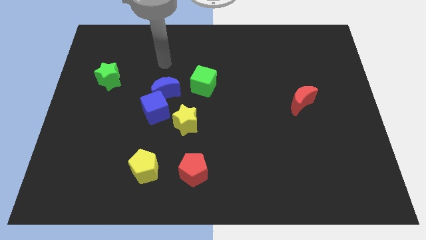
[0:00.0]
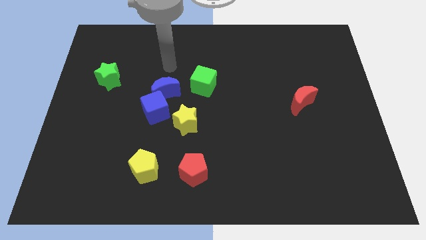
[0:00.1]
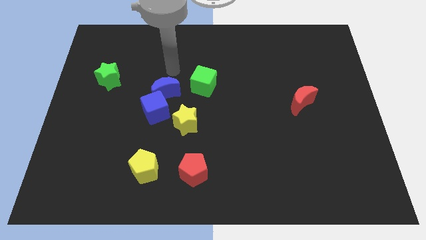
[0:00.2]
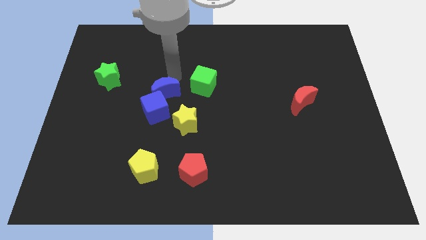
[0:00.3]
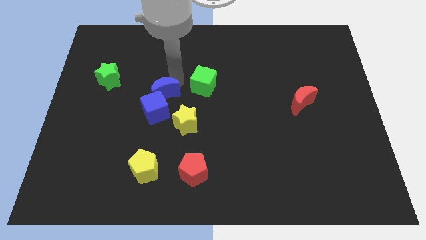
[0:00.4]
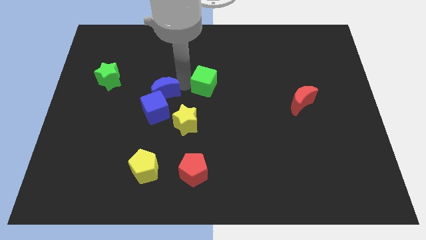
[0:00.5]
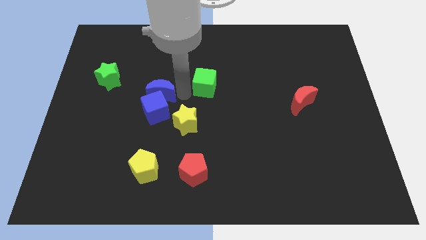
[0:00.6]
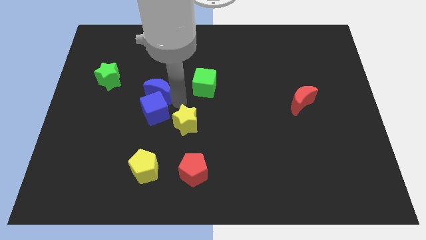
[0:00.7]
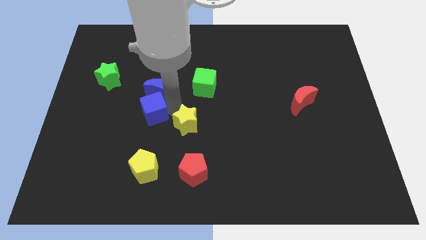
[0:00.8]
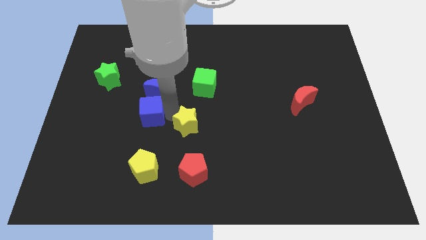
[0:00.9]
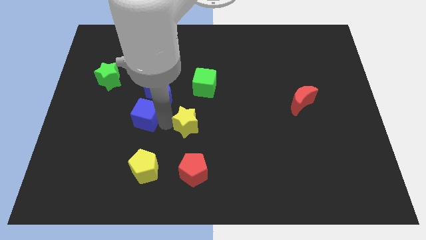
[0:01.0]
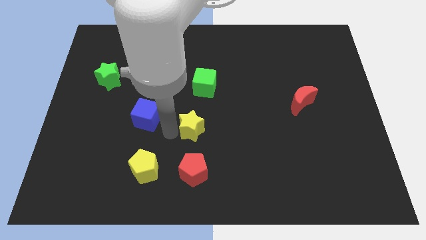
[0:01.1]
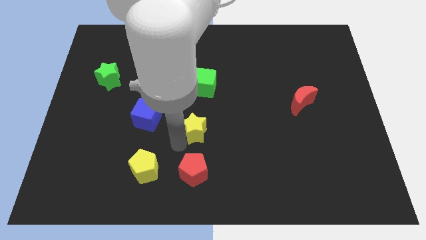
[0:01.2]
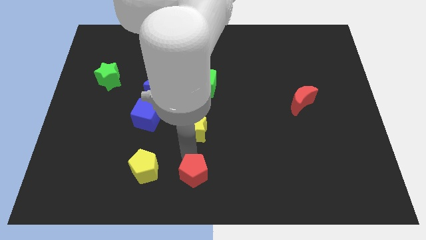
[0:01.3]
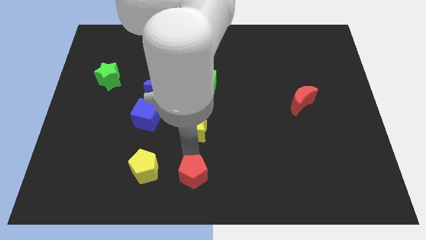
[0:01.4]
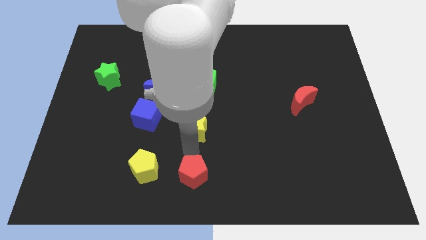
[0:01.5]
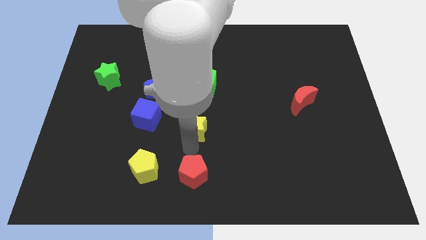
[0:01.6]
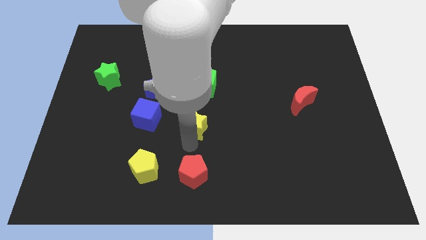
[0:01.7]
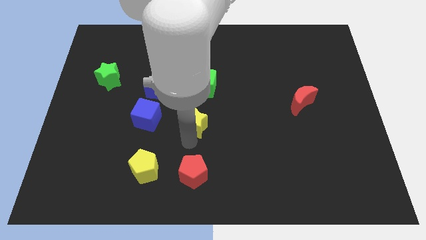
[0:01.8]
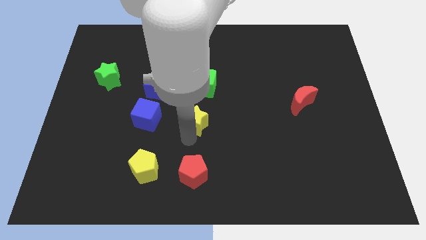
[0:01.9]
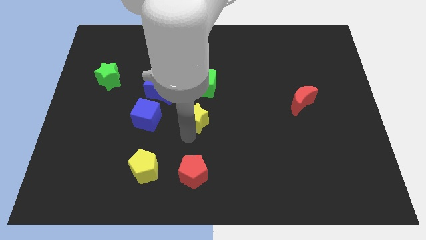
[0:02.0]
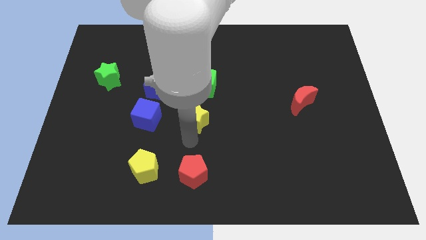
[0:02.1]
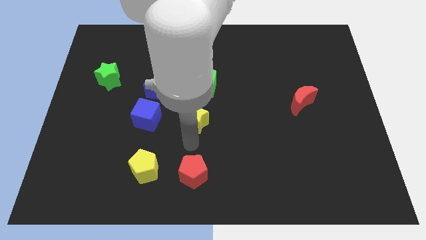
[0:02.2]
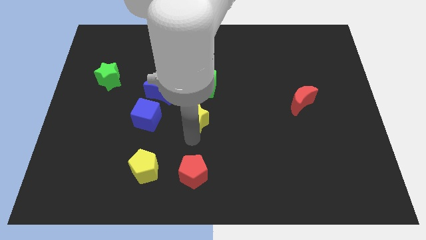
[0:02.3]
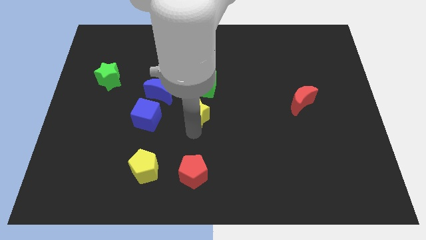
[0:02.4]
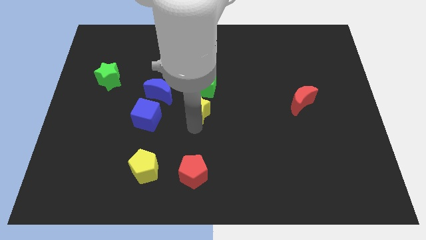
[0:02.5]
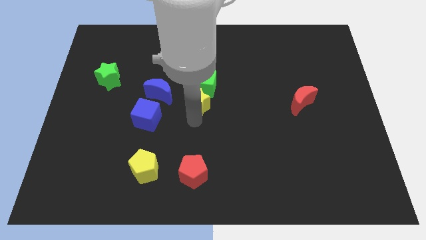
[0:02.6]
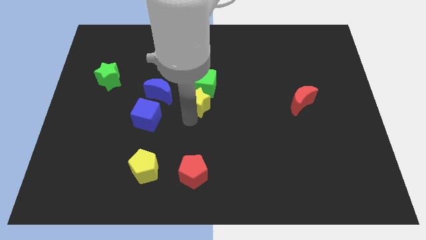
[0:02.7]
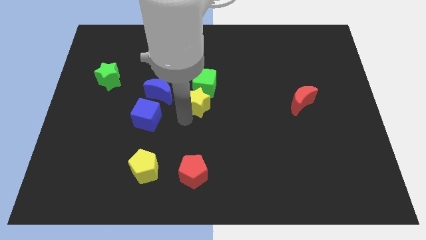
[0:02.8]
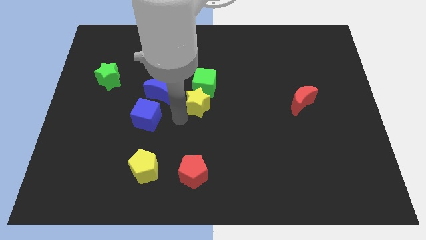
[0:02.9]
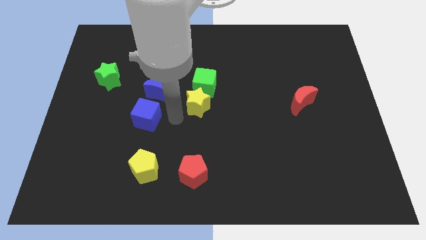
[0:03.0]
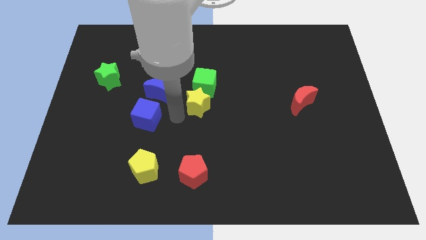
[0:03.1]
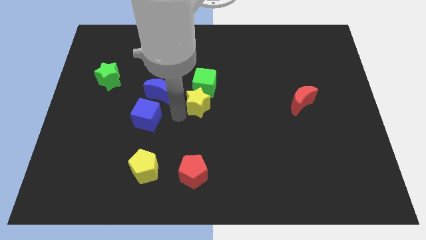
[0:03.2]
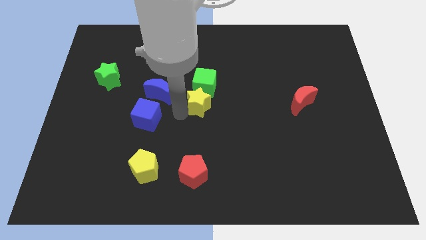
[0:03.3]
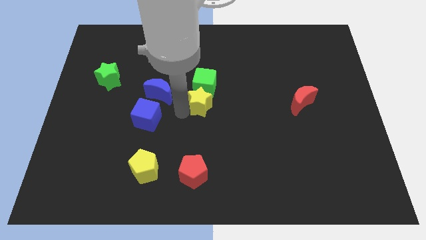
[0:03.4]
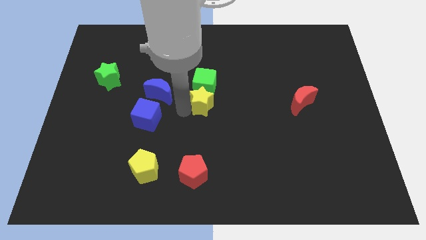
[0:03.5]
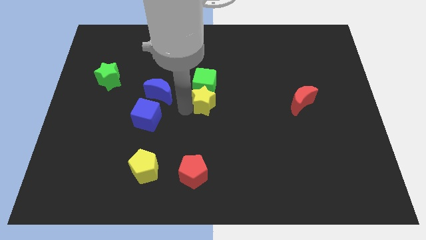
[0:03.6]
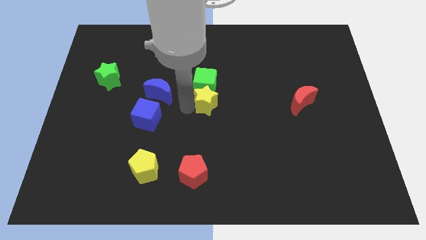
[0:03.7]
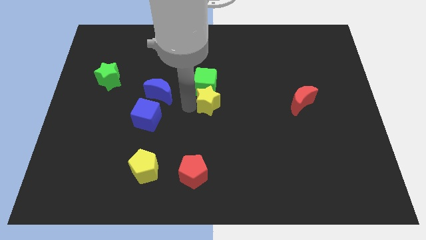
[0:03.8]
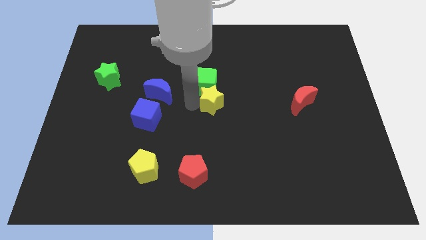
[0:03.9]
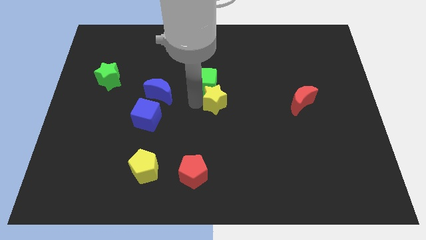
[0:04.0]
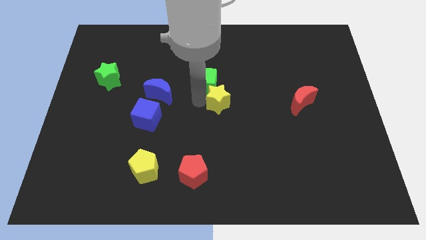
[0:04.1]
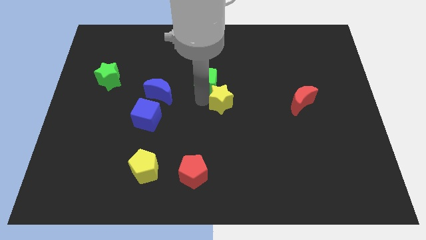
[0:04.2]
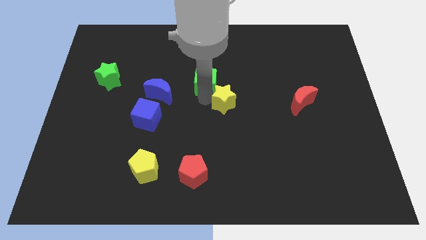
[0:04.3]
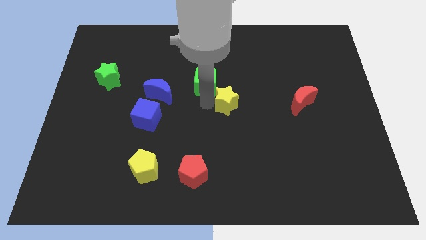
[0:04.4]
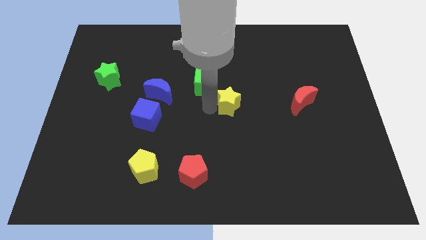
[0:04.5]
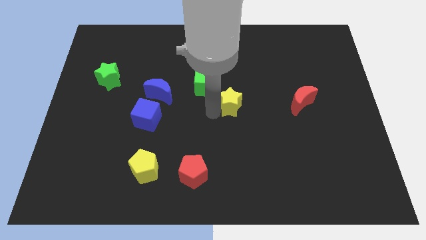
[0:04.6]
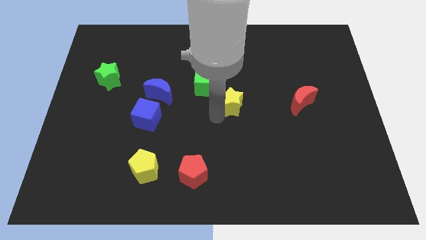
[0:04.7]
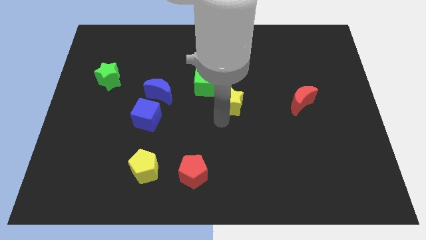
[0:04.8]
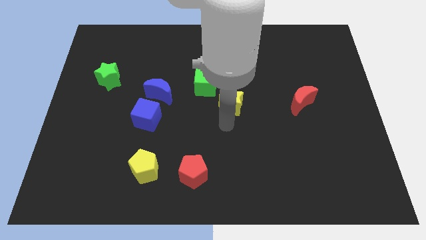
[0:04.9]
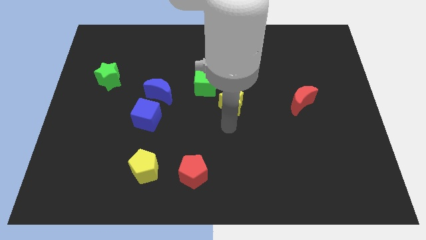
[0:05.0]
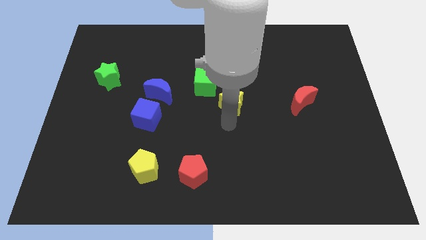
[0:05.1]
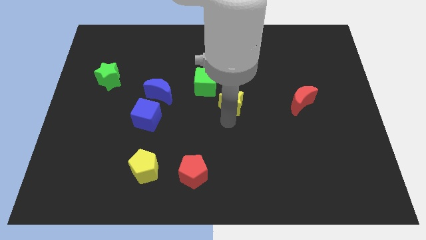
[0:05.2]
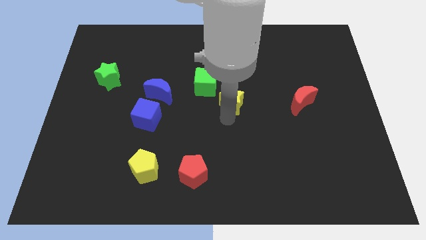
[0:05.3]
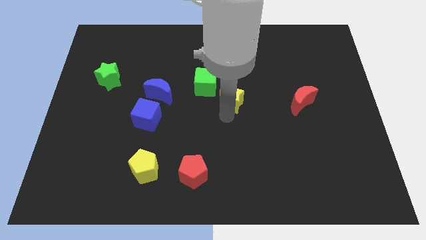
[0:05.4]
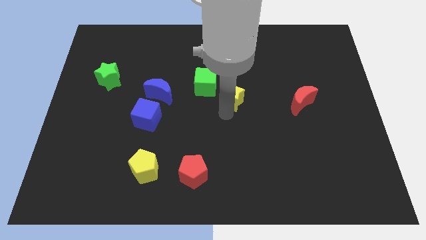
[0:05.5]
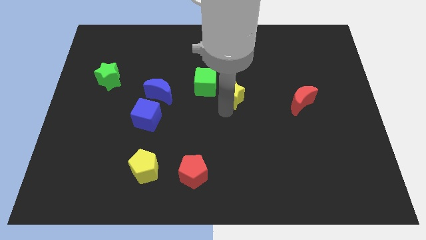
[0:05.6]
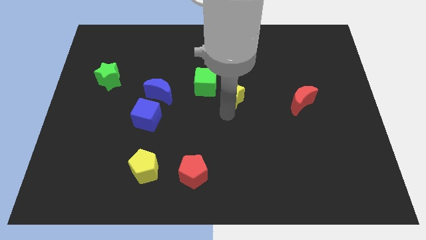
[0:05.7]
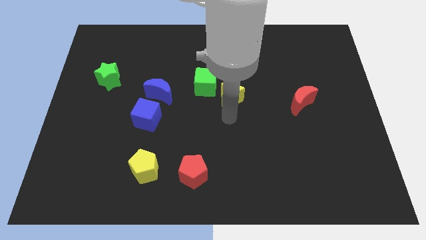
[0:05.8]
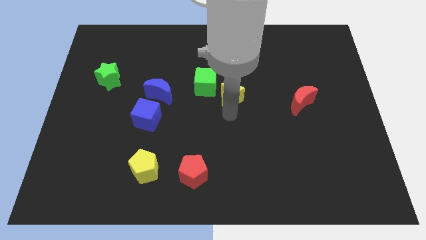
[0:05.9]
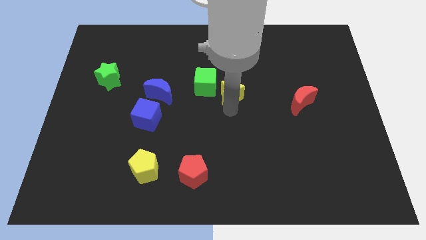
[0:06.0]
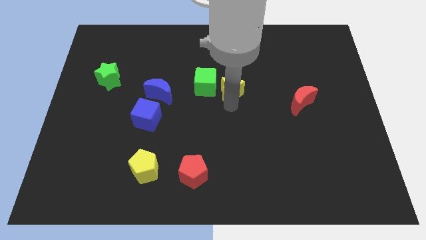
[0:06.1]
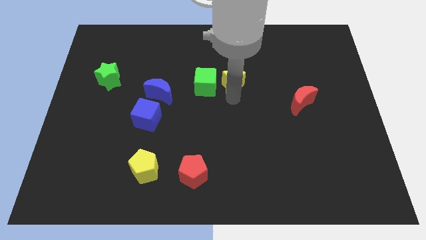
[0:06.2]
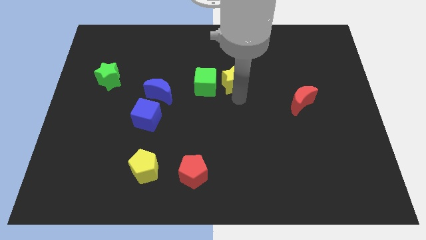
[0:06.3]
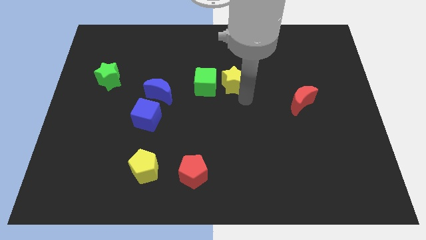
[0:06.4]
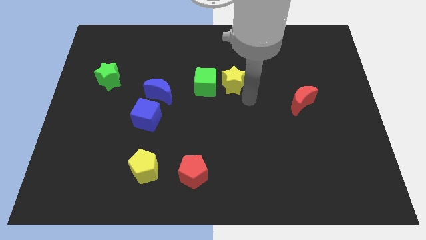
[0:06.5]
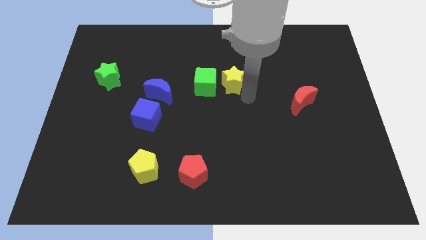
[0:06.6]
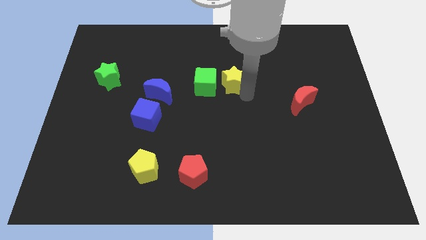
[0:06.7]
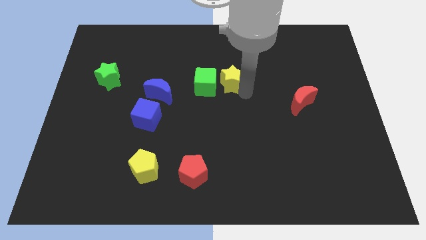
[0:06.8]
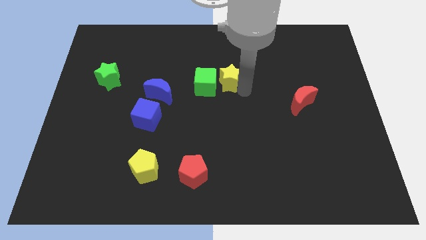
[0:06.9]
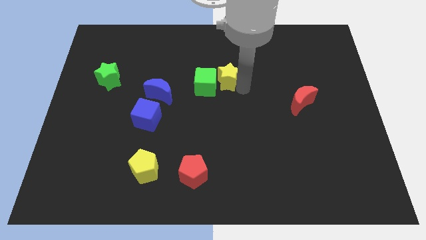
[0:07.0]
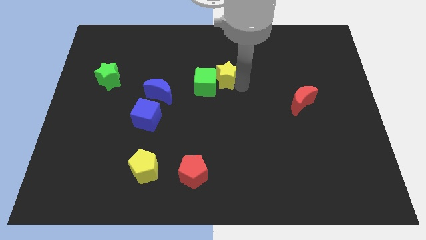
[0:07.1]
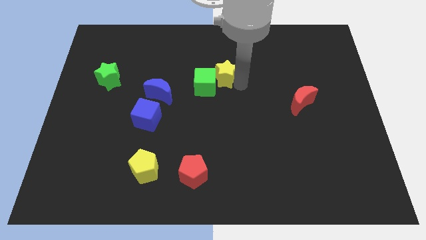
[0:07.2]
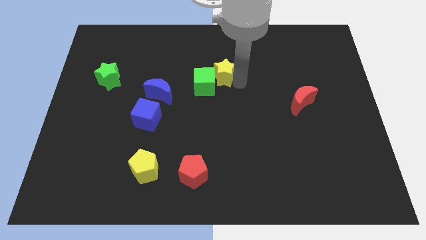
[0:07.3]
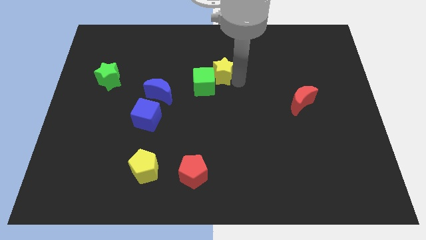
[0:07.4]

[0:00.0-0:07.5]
move the yellow star to the top of the green cube
